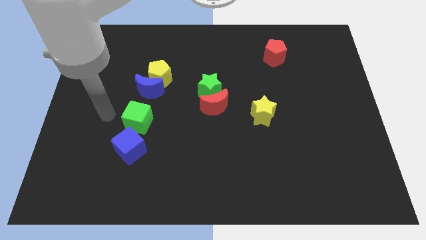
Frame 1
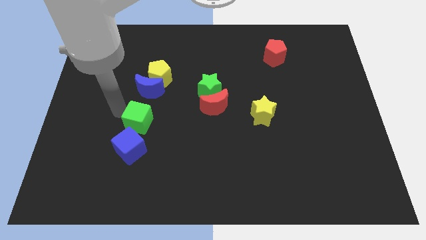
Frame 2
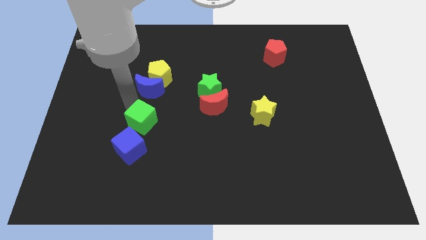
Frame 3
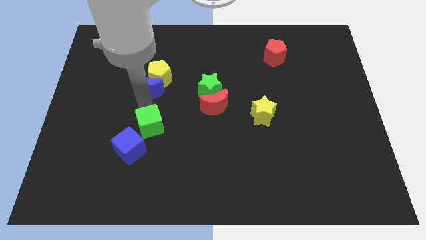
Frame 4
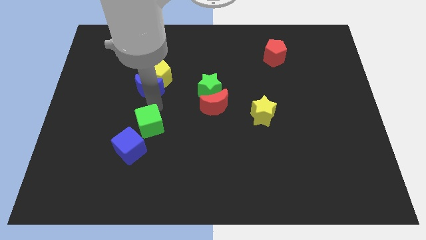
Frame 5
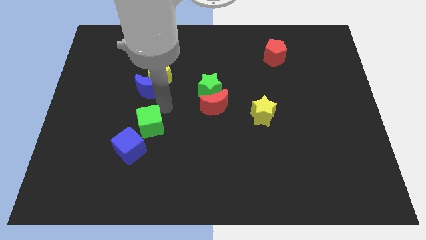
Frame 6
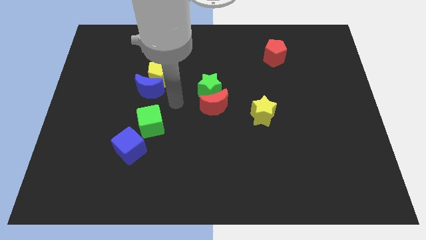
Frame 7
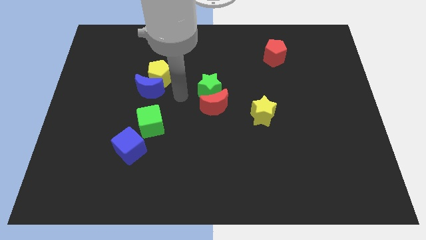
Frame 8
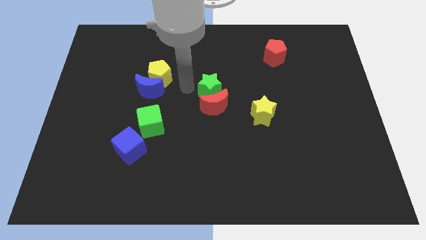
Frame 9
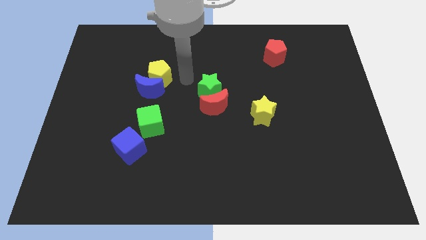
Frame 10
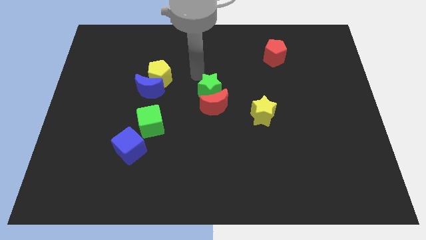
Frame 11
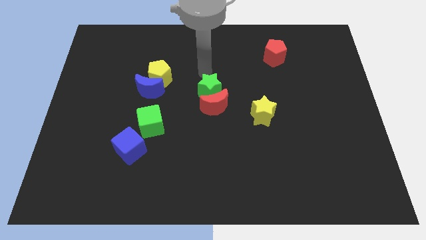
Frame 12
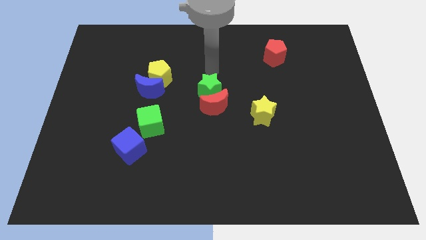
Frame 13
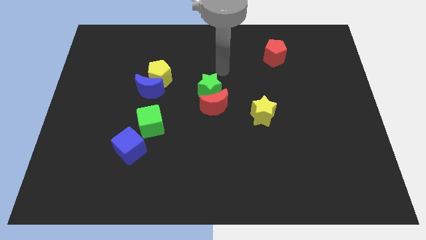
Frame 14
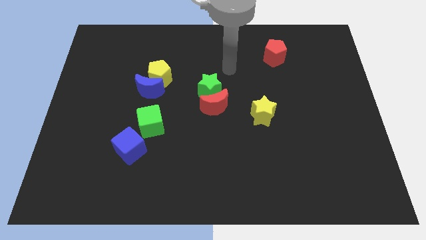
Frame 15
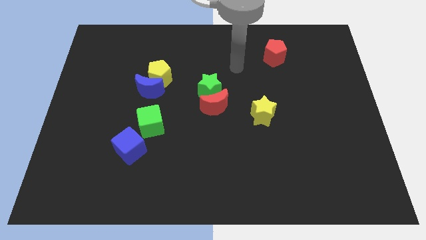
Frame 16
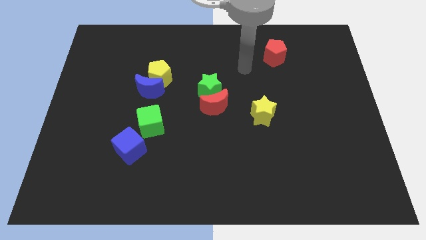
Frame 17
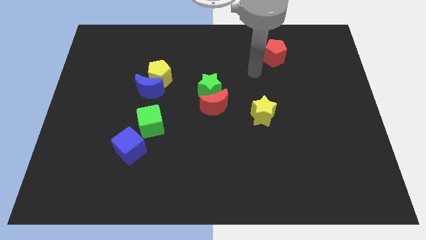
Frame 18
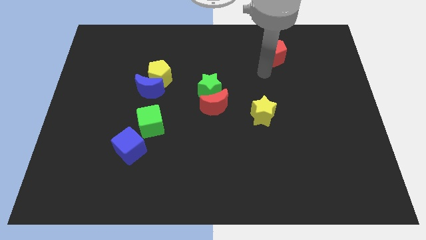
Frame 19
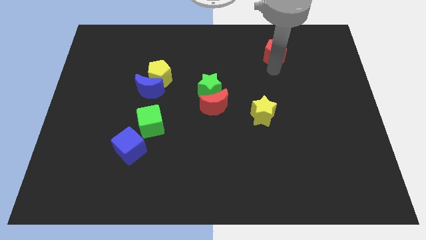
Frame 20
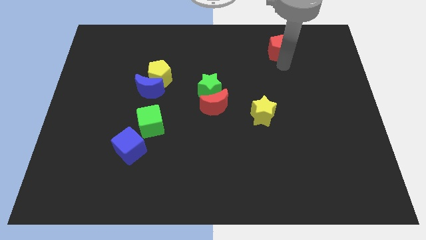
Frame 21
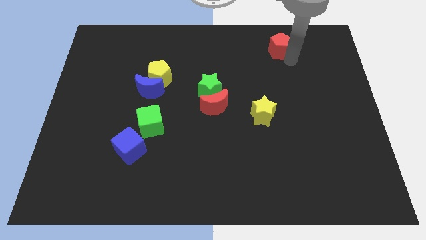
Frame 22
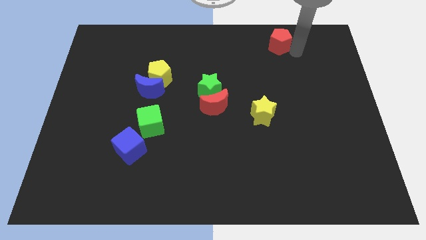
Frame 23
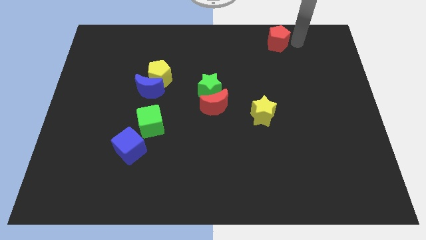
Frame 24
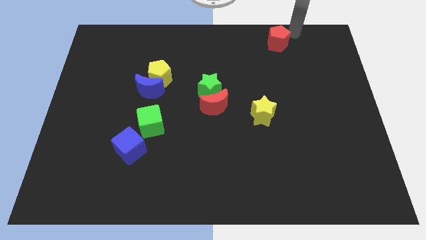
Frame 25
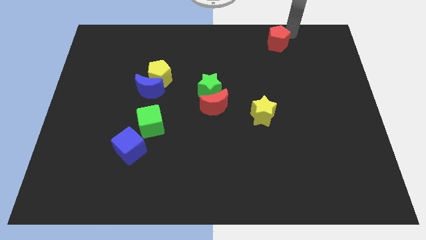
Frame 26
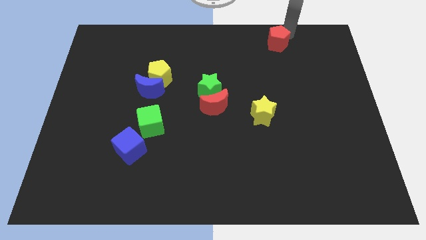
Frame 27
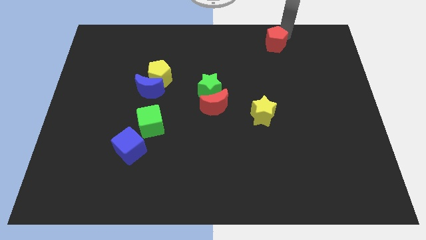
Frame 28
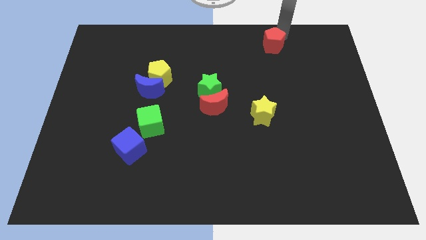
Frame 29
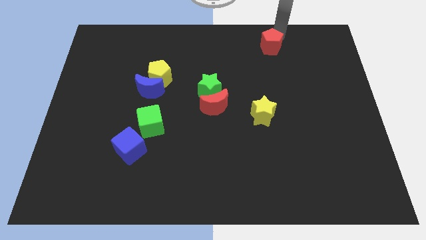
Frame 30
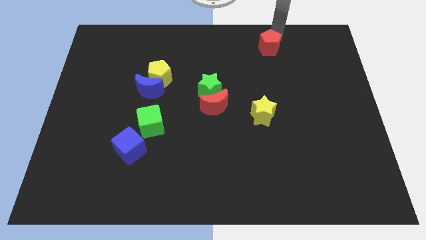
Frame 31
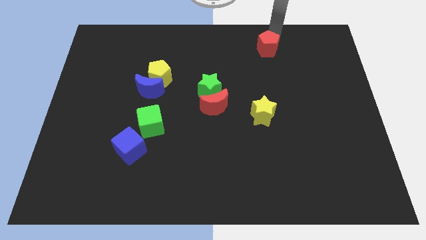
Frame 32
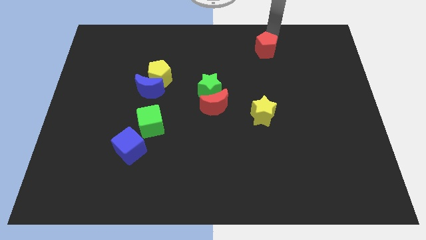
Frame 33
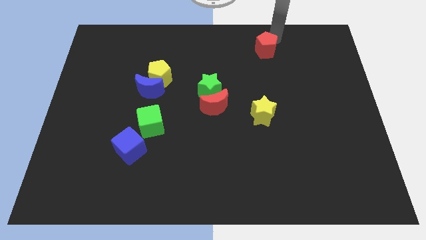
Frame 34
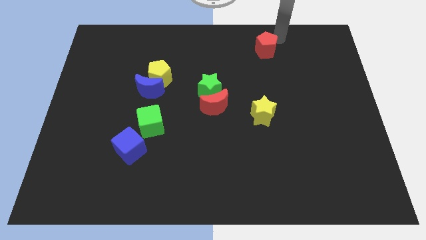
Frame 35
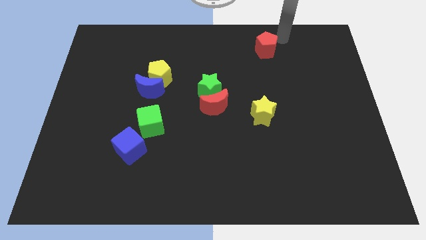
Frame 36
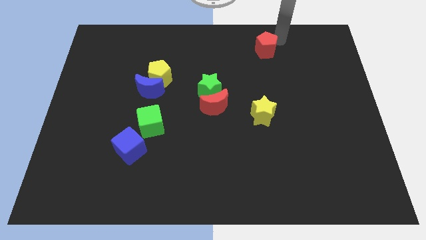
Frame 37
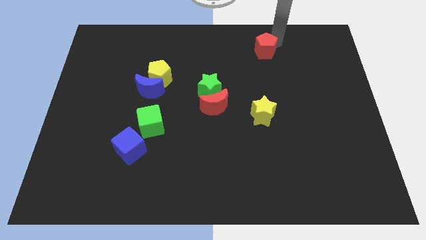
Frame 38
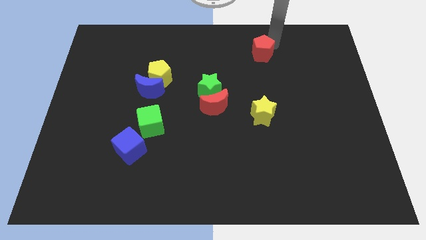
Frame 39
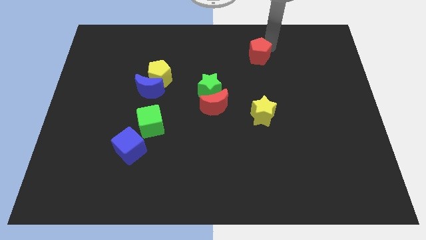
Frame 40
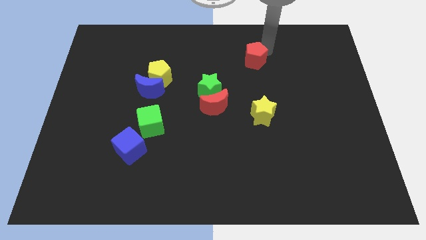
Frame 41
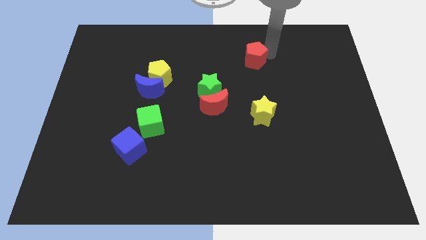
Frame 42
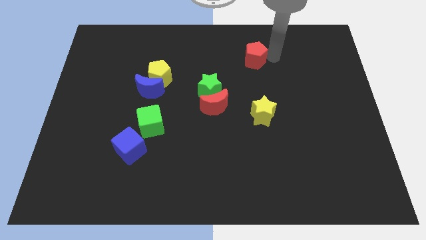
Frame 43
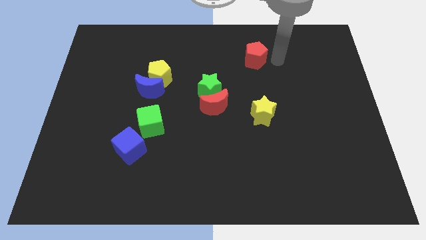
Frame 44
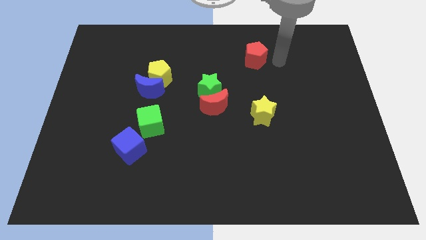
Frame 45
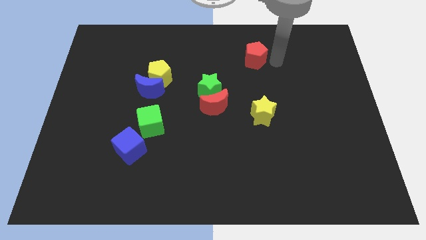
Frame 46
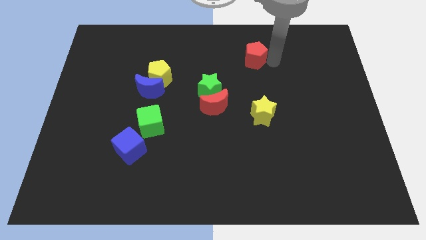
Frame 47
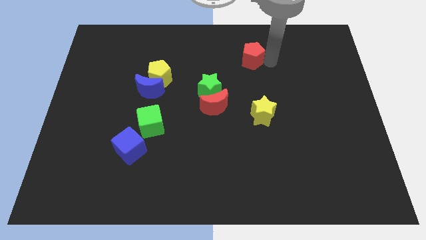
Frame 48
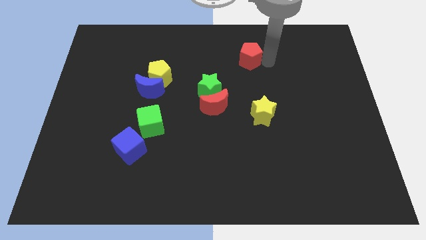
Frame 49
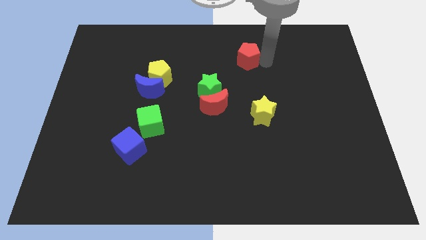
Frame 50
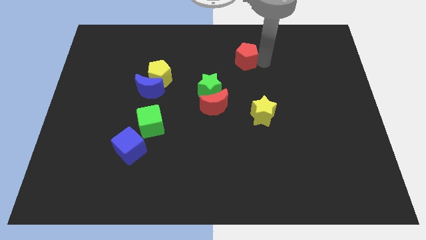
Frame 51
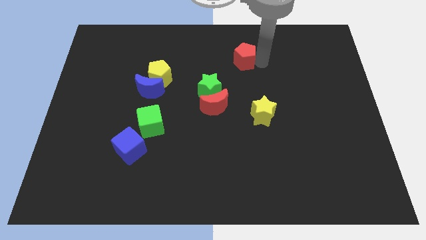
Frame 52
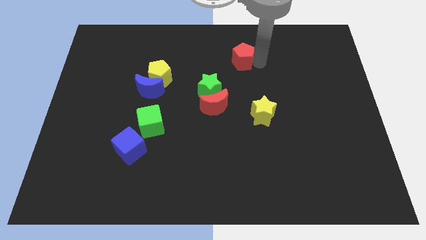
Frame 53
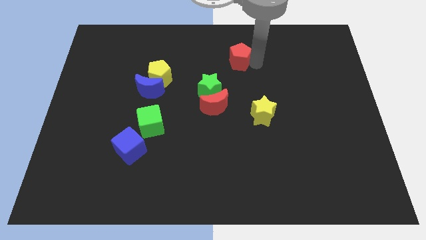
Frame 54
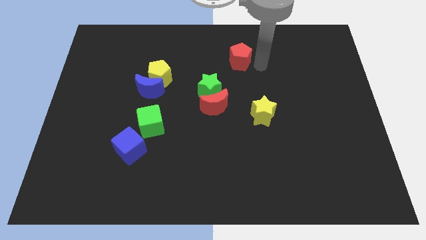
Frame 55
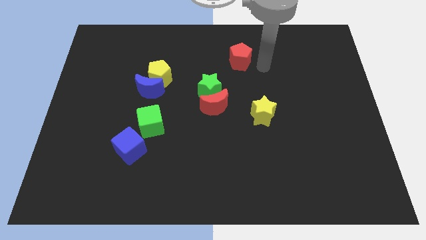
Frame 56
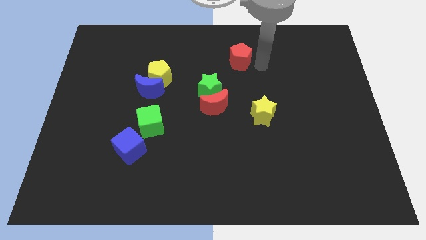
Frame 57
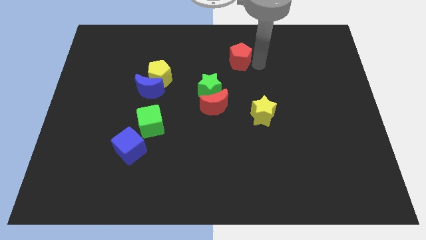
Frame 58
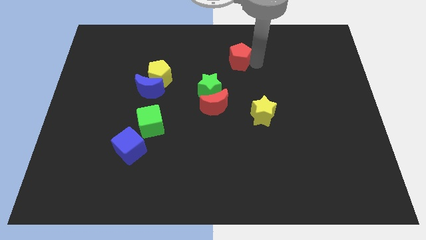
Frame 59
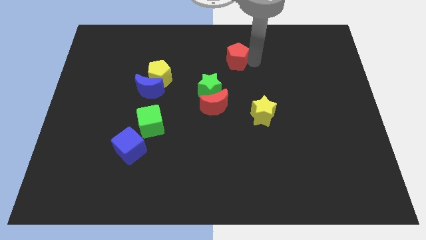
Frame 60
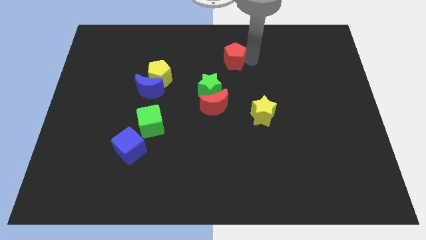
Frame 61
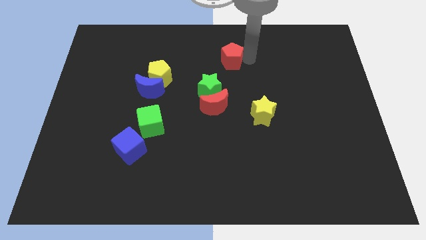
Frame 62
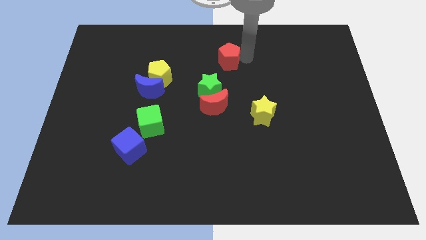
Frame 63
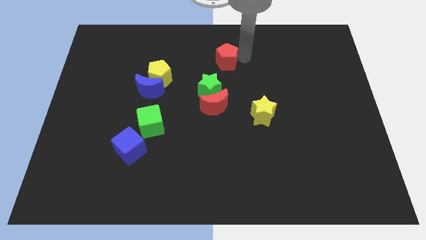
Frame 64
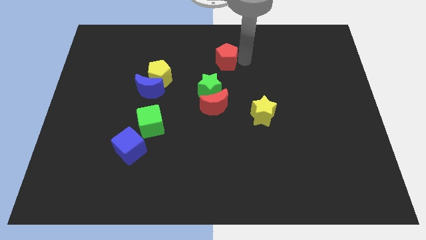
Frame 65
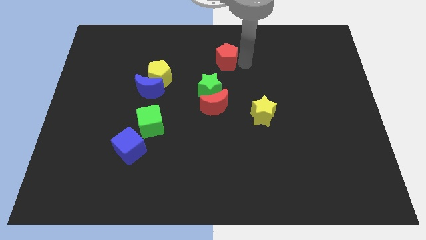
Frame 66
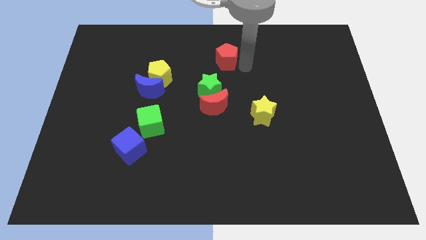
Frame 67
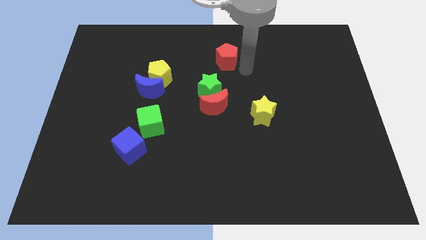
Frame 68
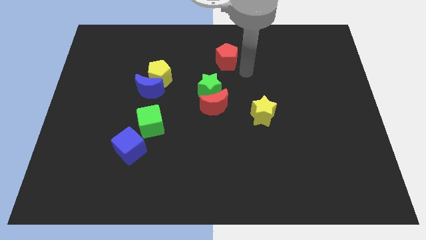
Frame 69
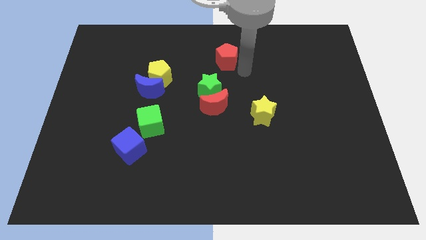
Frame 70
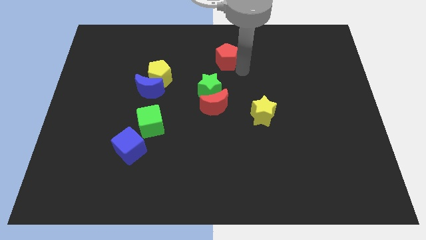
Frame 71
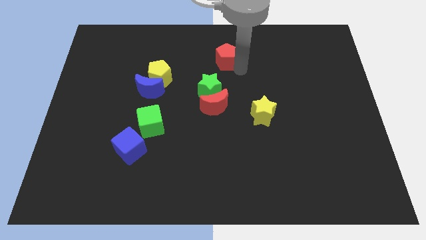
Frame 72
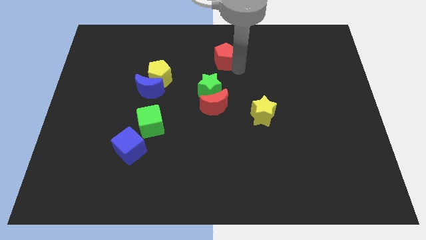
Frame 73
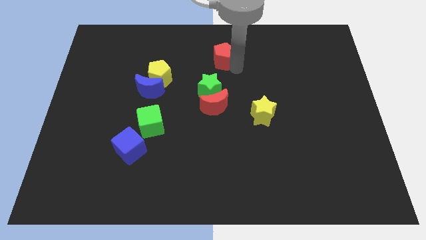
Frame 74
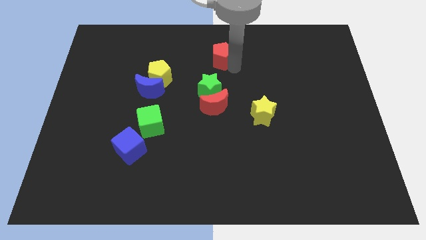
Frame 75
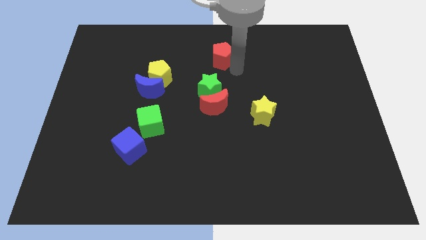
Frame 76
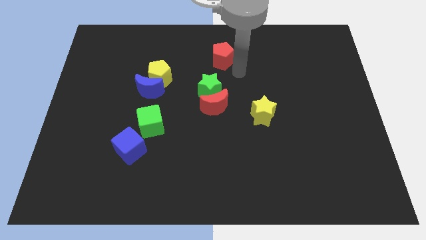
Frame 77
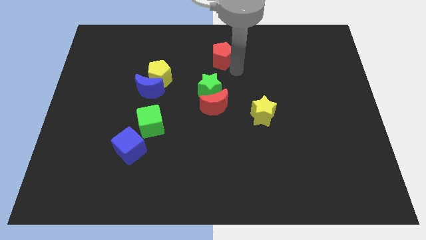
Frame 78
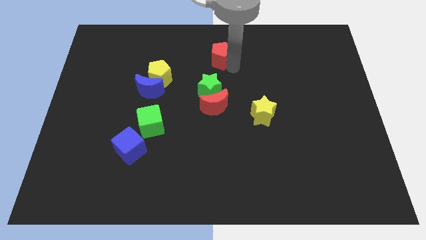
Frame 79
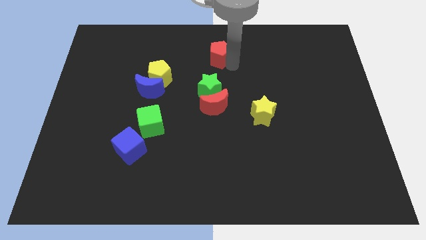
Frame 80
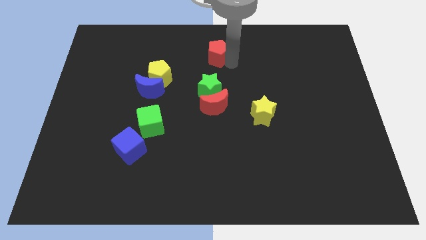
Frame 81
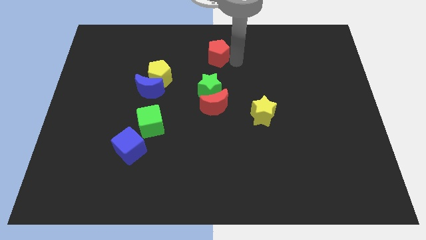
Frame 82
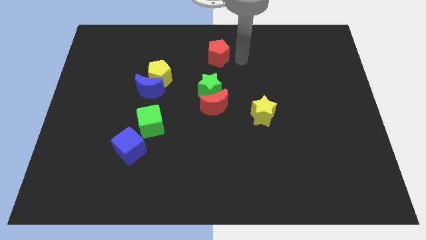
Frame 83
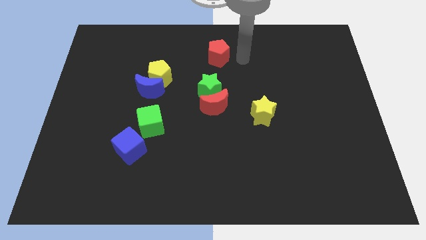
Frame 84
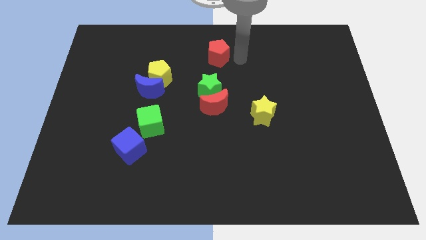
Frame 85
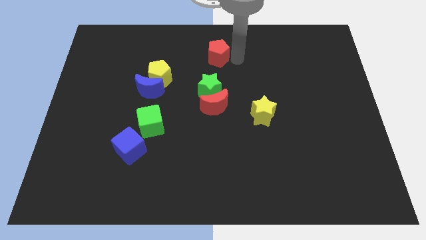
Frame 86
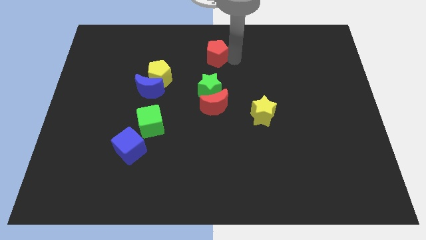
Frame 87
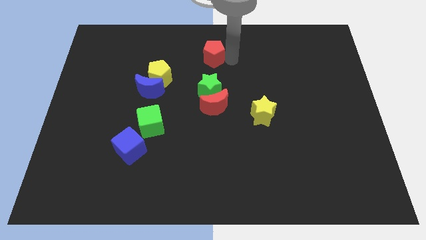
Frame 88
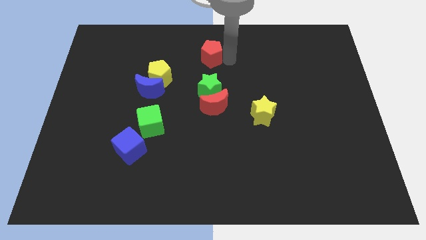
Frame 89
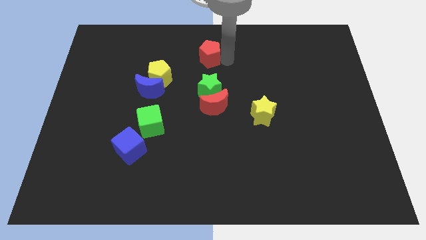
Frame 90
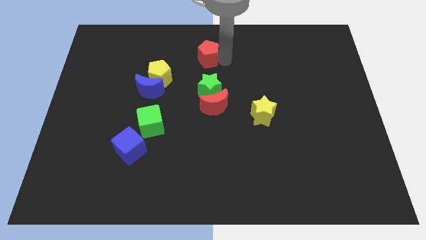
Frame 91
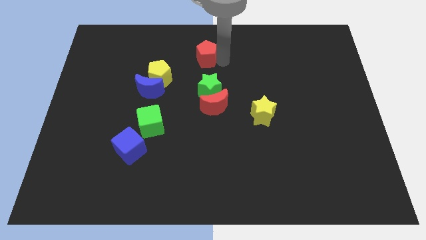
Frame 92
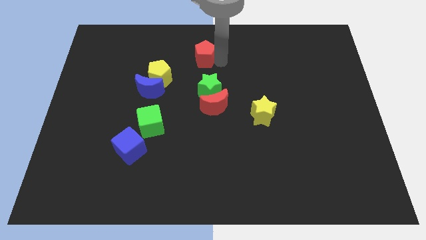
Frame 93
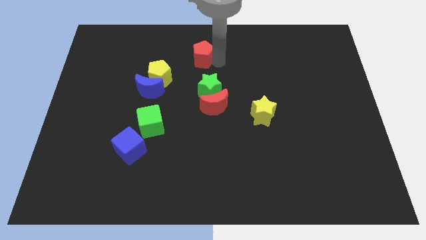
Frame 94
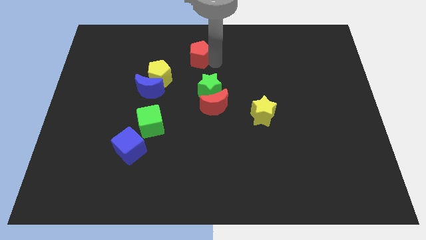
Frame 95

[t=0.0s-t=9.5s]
slide the red pentagon left
